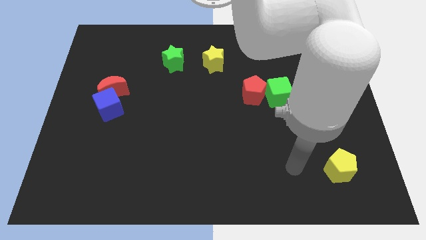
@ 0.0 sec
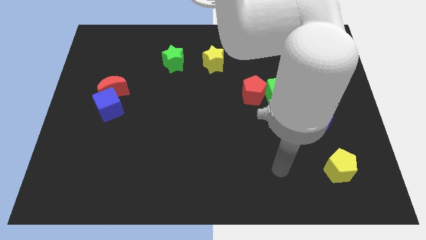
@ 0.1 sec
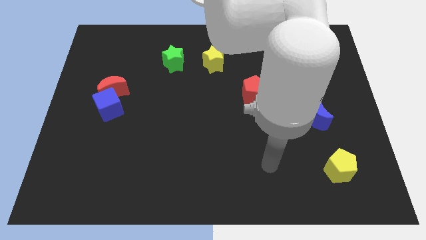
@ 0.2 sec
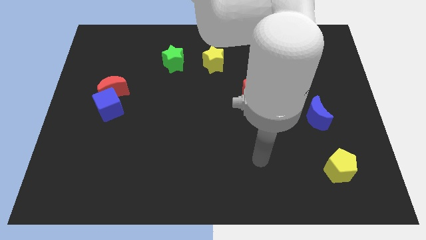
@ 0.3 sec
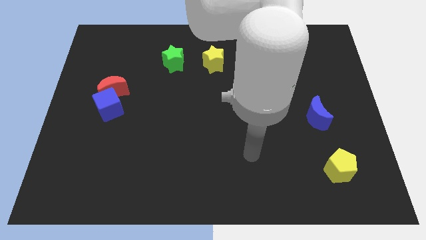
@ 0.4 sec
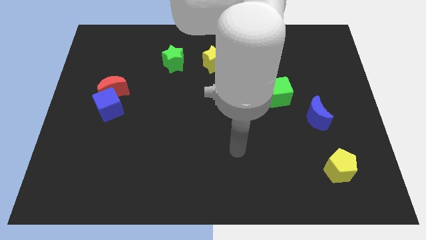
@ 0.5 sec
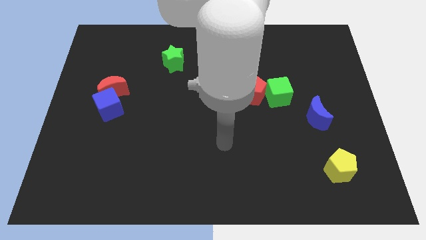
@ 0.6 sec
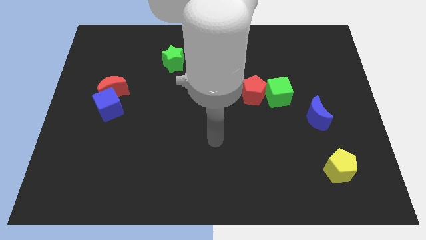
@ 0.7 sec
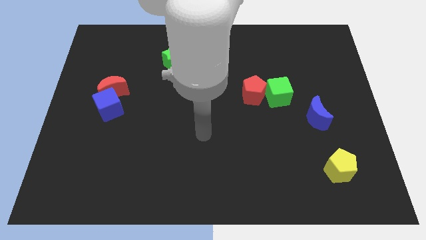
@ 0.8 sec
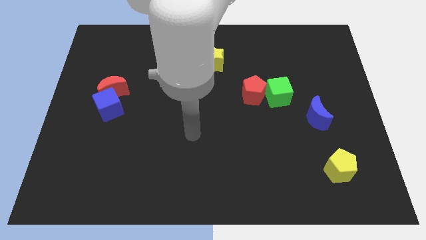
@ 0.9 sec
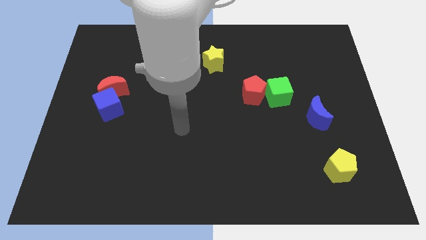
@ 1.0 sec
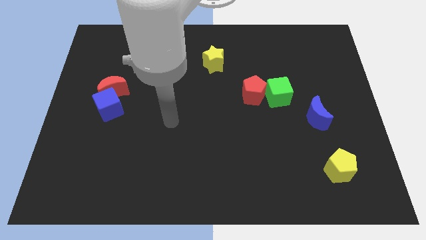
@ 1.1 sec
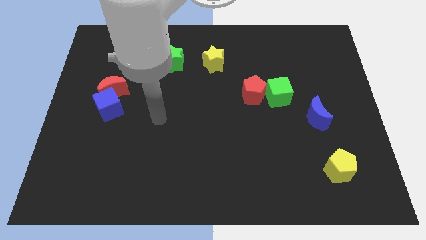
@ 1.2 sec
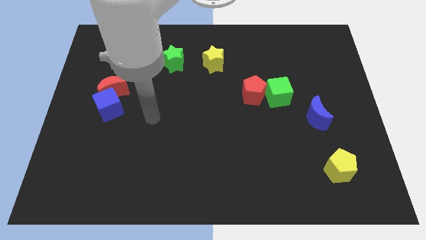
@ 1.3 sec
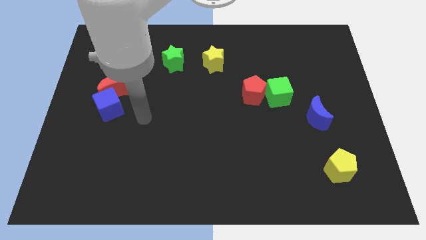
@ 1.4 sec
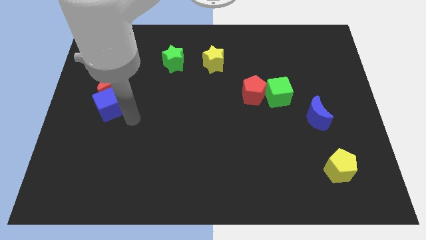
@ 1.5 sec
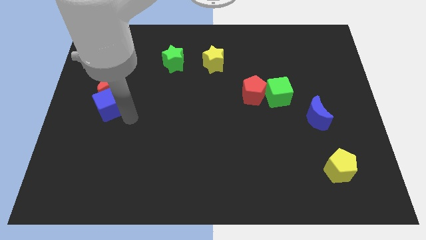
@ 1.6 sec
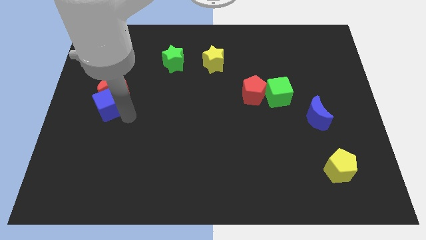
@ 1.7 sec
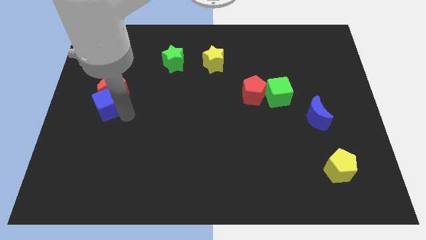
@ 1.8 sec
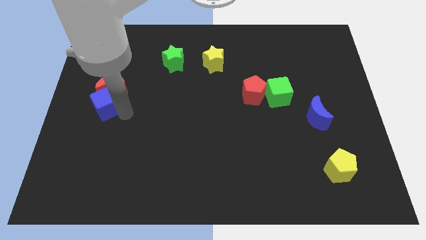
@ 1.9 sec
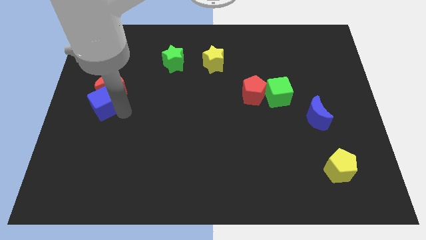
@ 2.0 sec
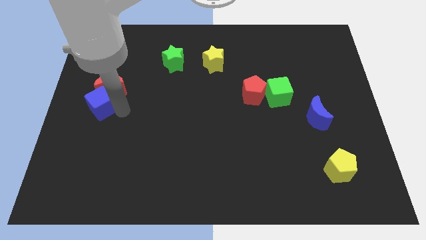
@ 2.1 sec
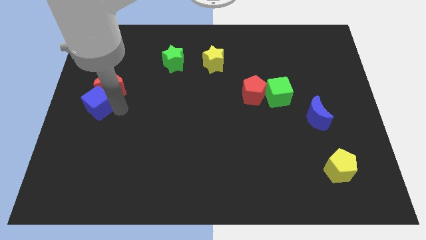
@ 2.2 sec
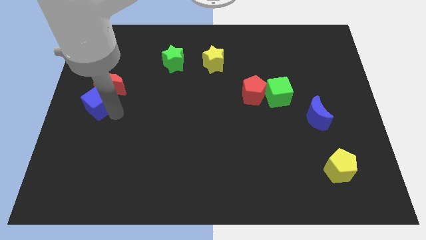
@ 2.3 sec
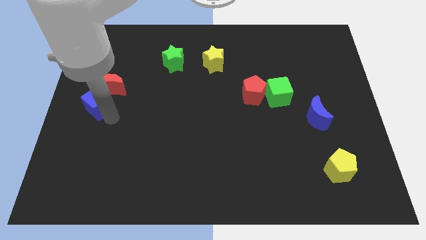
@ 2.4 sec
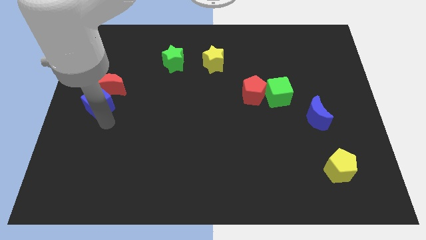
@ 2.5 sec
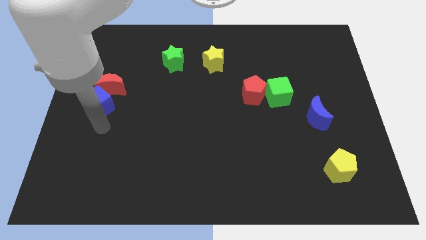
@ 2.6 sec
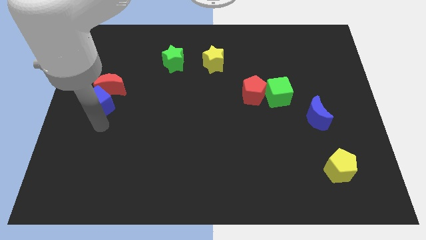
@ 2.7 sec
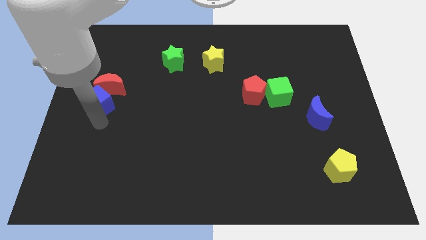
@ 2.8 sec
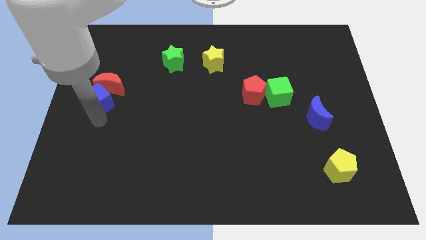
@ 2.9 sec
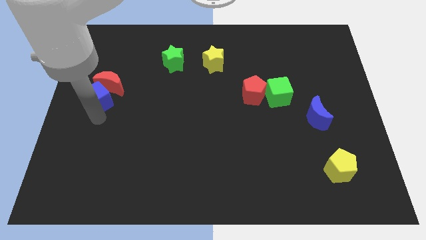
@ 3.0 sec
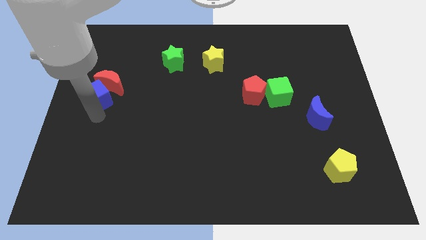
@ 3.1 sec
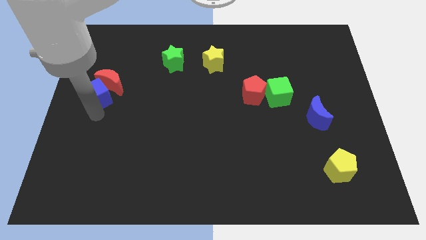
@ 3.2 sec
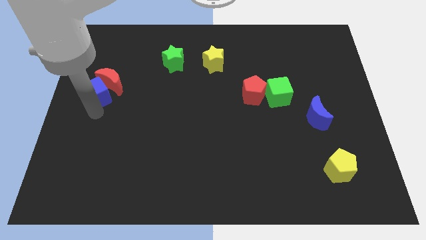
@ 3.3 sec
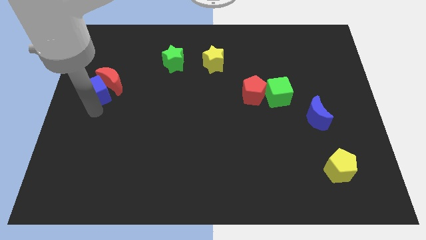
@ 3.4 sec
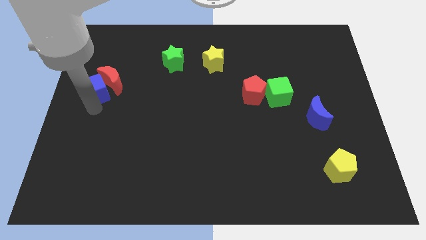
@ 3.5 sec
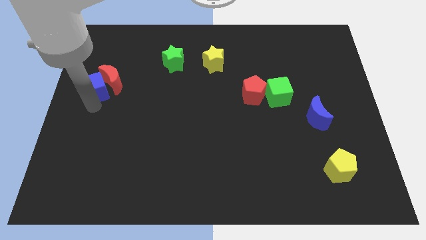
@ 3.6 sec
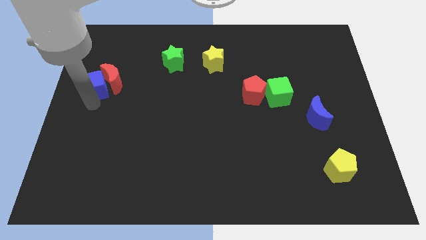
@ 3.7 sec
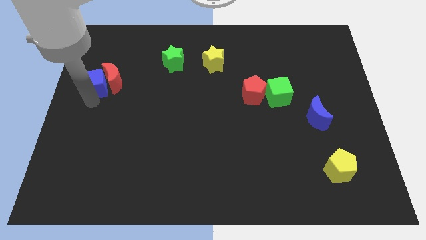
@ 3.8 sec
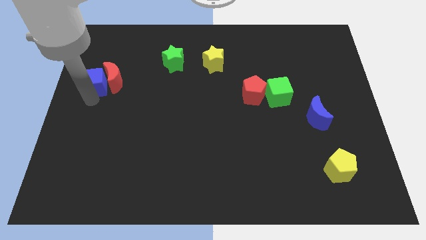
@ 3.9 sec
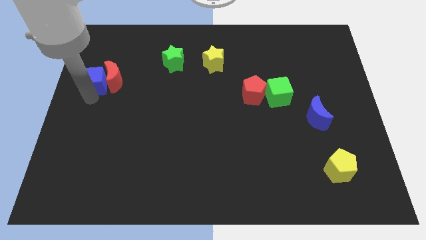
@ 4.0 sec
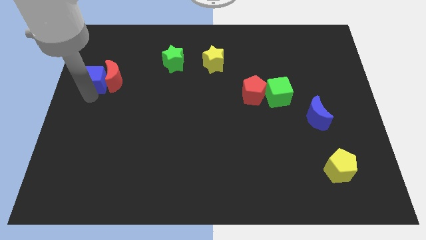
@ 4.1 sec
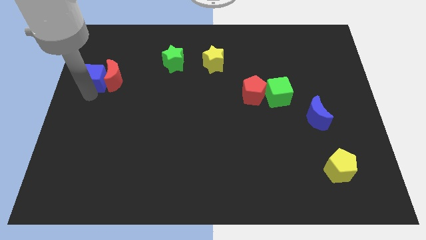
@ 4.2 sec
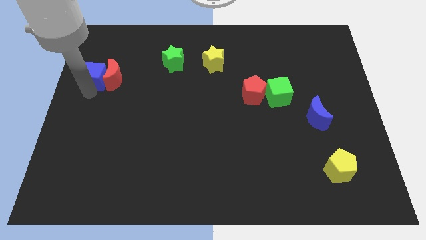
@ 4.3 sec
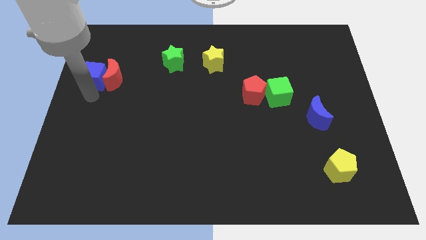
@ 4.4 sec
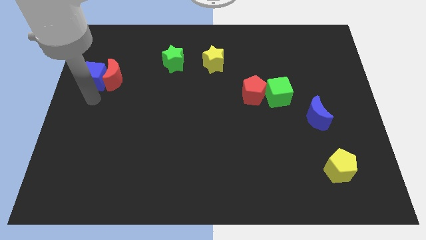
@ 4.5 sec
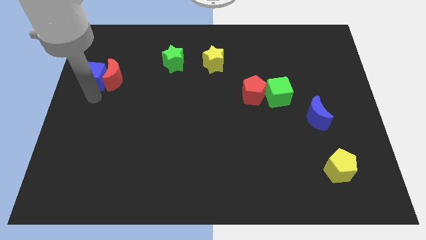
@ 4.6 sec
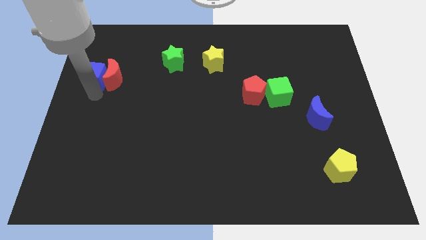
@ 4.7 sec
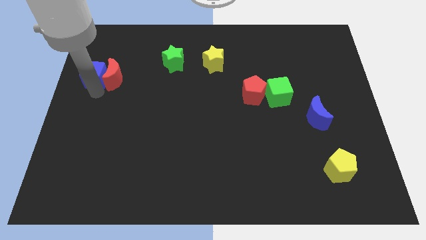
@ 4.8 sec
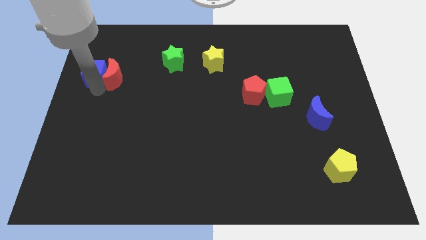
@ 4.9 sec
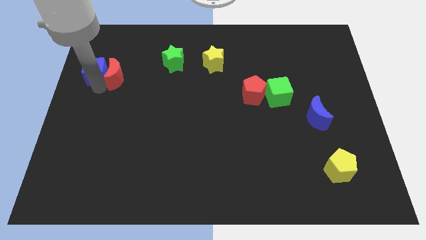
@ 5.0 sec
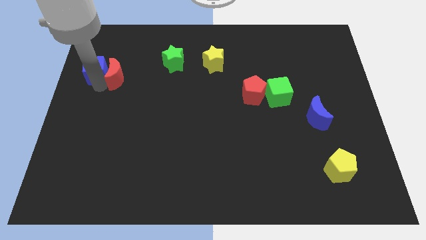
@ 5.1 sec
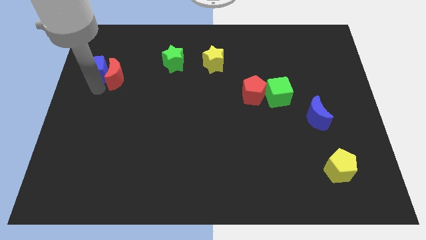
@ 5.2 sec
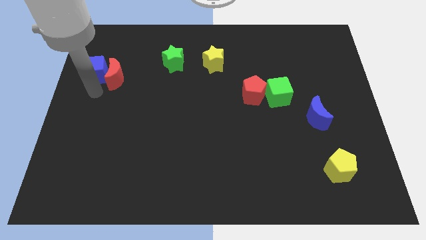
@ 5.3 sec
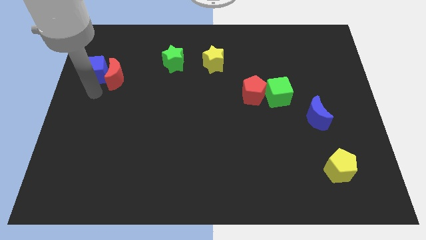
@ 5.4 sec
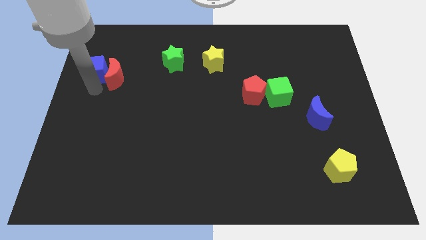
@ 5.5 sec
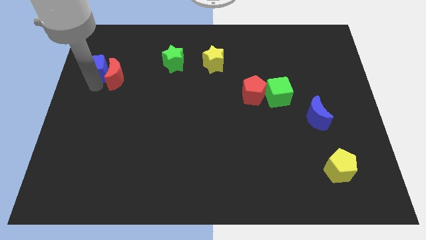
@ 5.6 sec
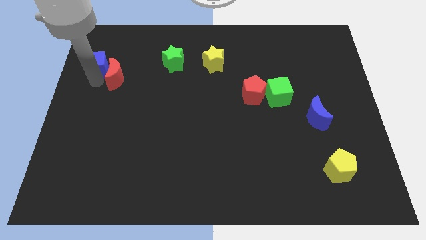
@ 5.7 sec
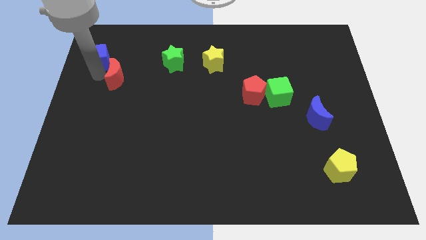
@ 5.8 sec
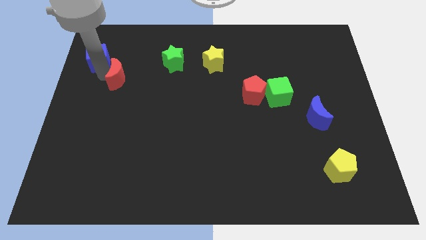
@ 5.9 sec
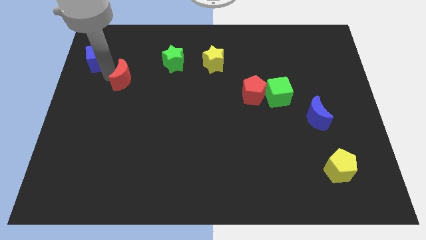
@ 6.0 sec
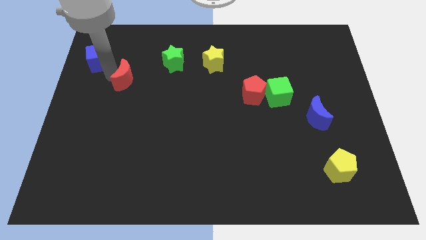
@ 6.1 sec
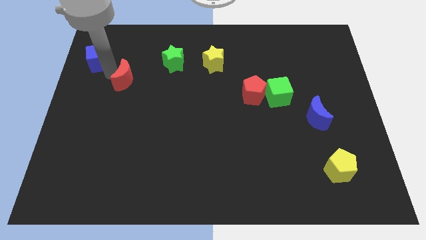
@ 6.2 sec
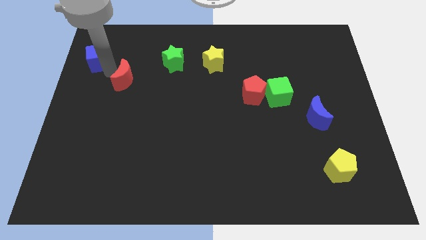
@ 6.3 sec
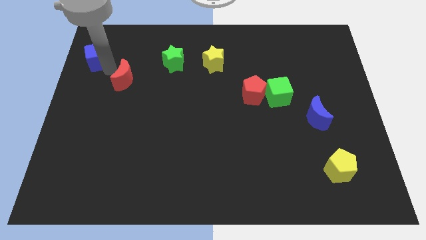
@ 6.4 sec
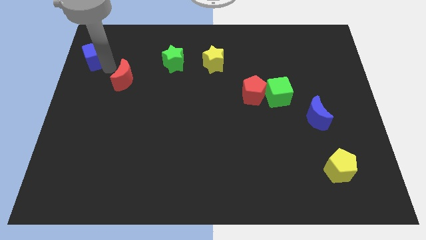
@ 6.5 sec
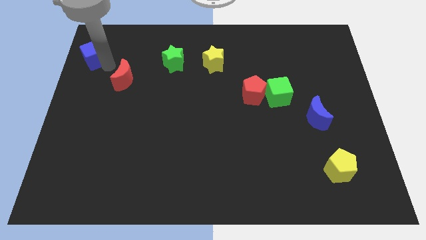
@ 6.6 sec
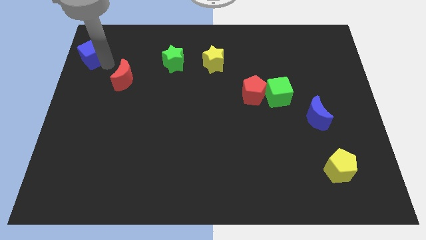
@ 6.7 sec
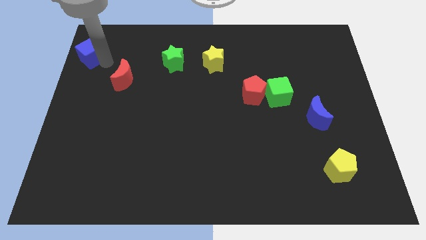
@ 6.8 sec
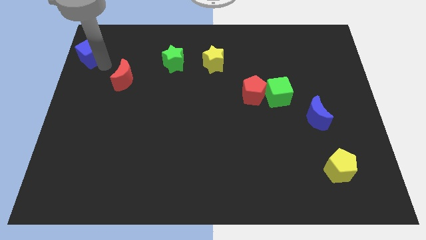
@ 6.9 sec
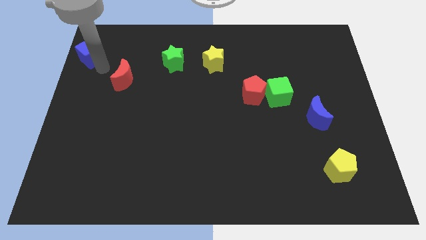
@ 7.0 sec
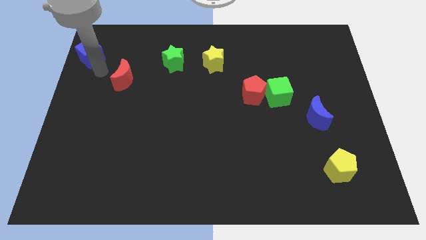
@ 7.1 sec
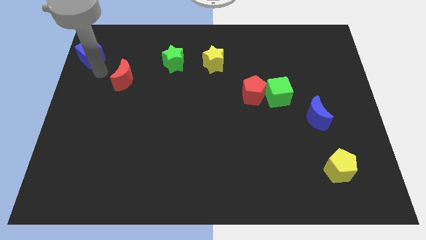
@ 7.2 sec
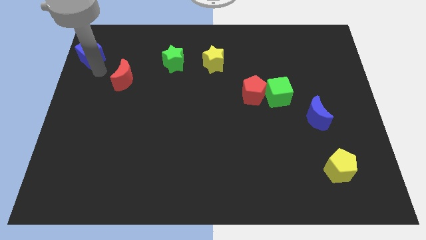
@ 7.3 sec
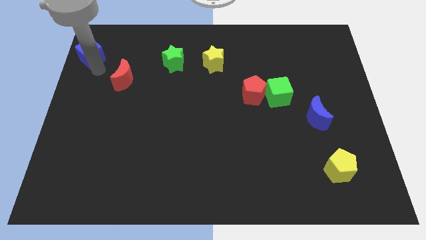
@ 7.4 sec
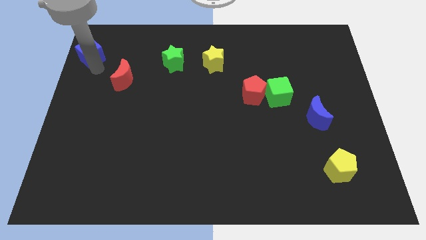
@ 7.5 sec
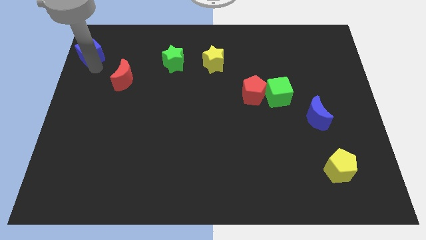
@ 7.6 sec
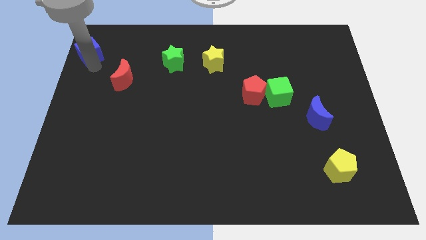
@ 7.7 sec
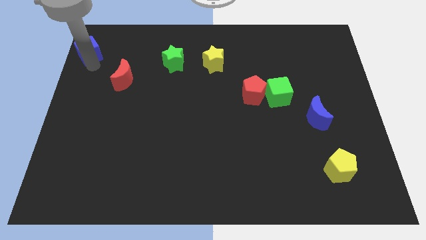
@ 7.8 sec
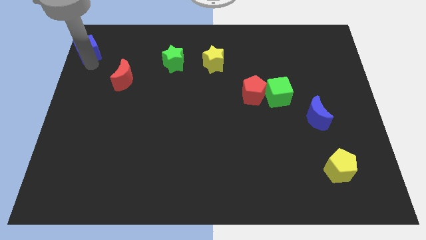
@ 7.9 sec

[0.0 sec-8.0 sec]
slide the blue cube to the upper left corner
